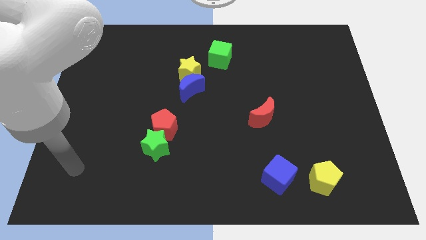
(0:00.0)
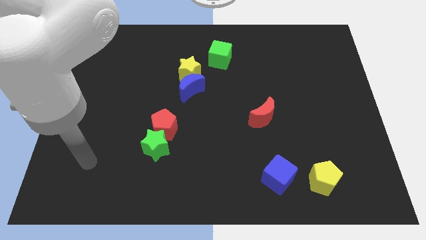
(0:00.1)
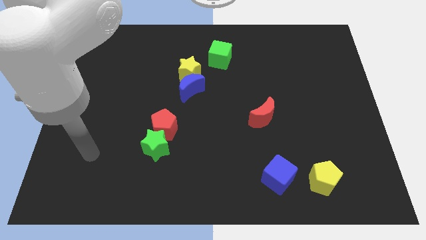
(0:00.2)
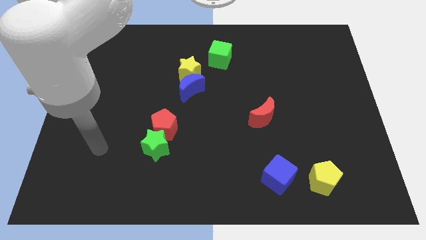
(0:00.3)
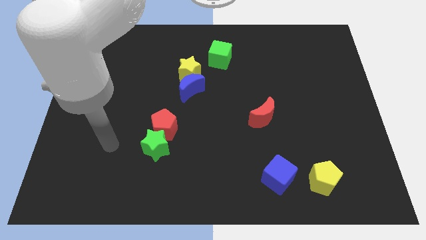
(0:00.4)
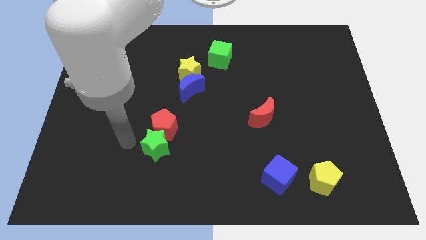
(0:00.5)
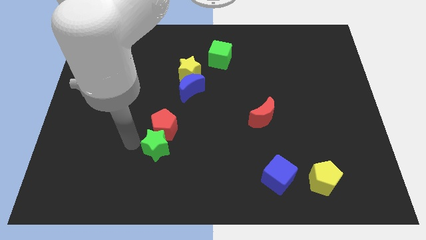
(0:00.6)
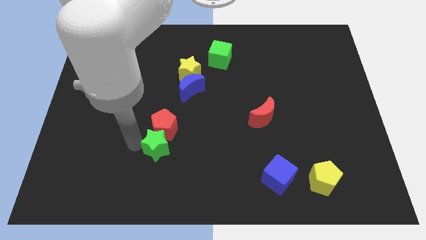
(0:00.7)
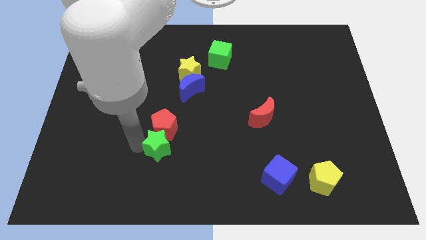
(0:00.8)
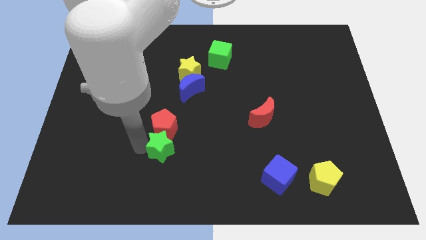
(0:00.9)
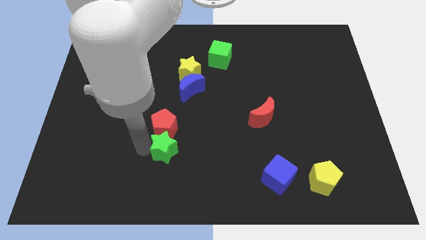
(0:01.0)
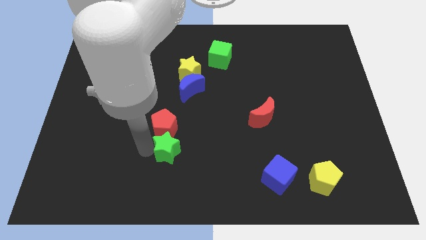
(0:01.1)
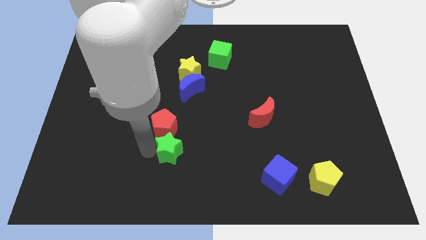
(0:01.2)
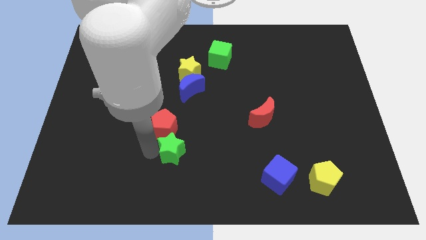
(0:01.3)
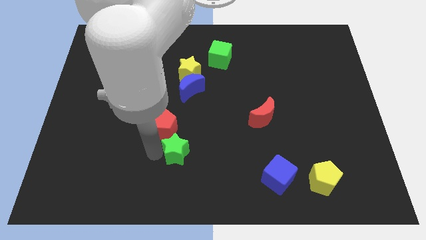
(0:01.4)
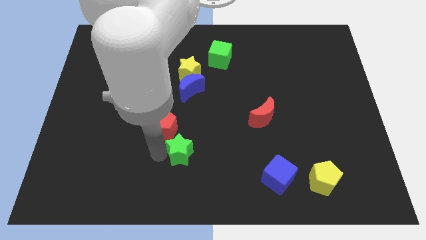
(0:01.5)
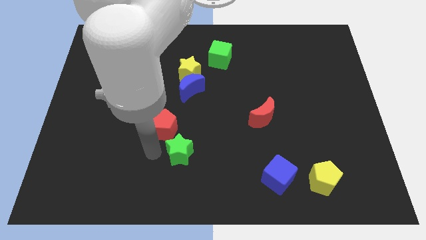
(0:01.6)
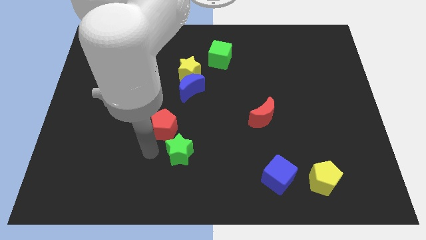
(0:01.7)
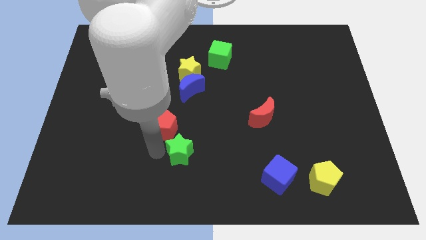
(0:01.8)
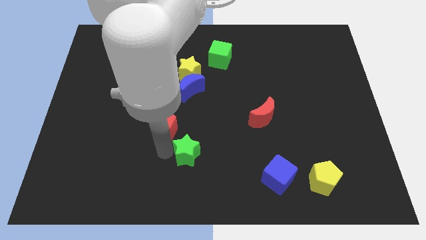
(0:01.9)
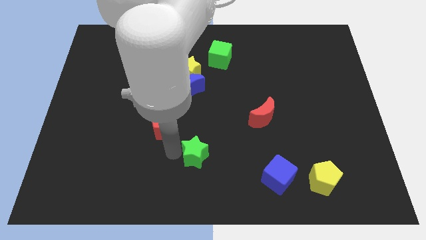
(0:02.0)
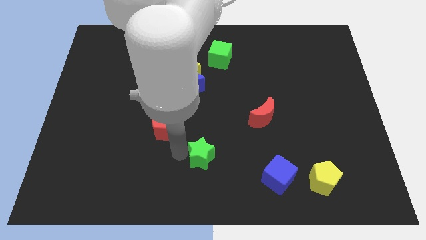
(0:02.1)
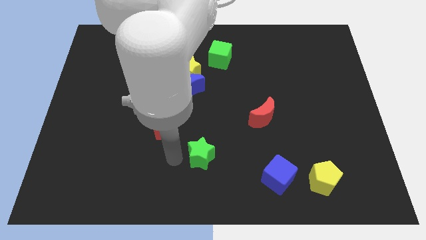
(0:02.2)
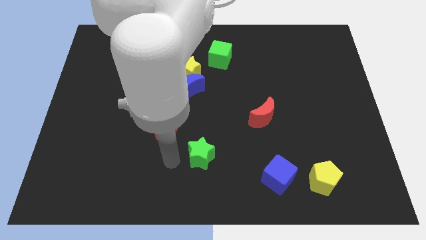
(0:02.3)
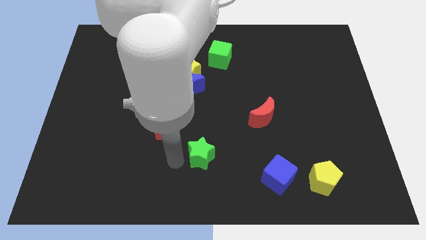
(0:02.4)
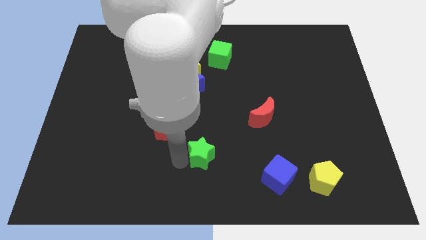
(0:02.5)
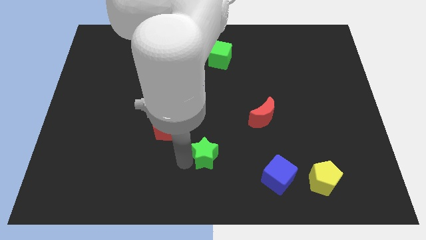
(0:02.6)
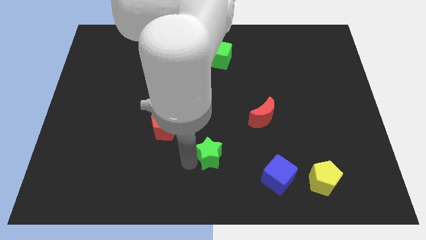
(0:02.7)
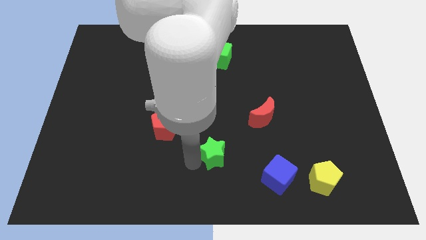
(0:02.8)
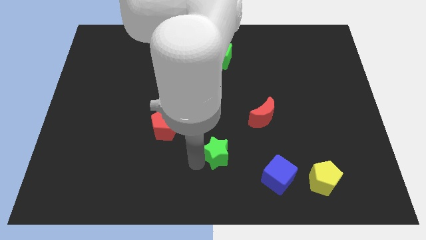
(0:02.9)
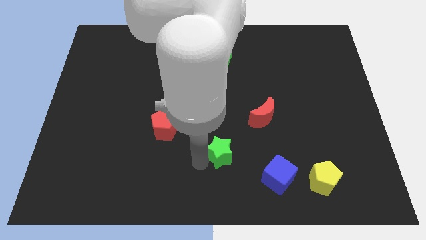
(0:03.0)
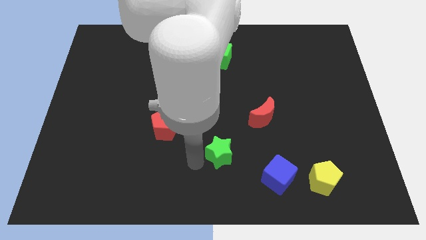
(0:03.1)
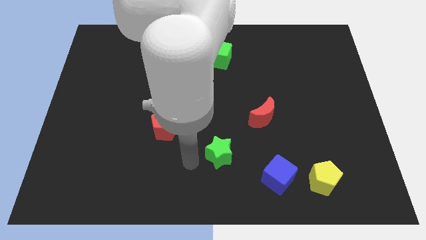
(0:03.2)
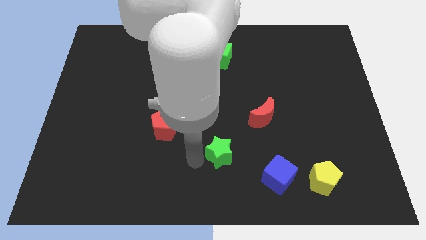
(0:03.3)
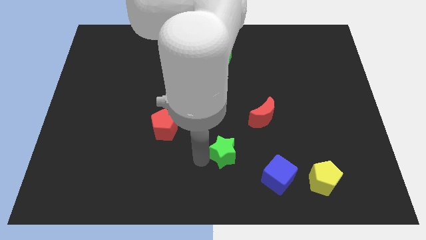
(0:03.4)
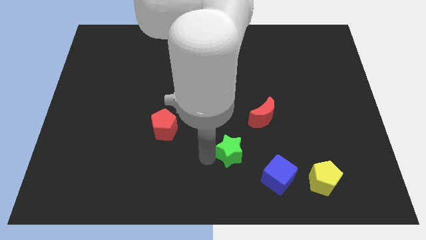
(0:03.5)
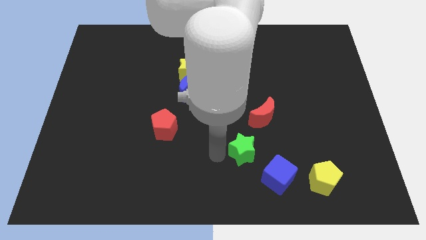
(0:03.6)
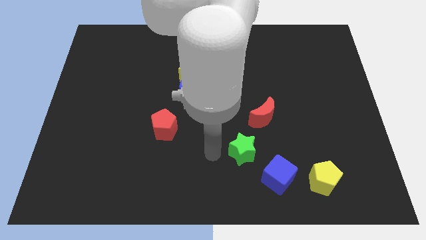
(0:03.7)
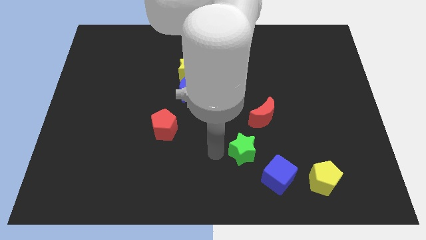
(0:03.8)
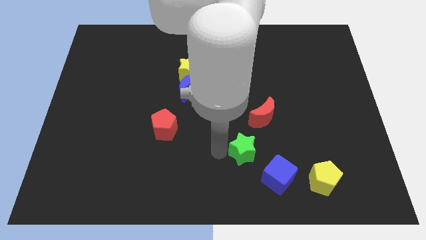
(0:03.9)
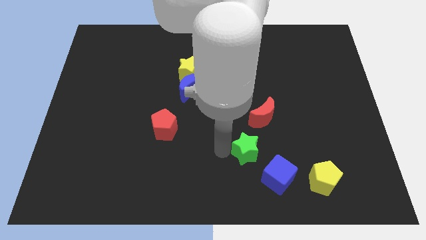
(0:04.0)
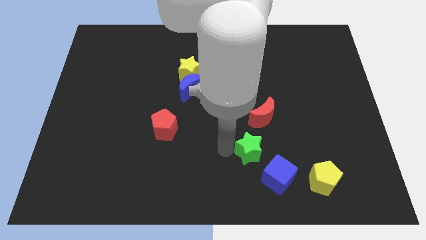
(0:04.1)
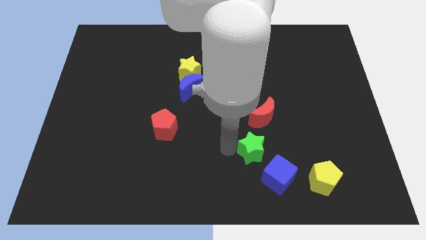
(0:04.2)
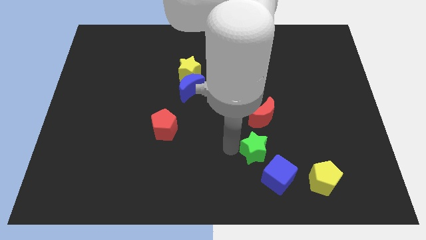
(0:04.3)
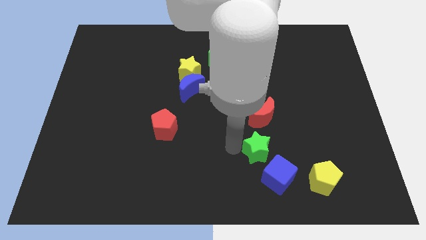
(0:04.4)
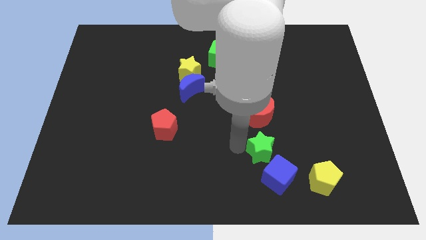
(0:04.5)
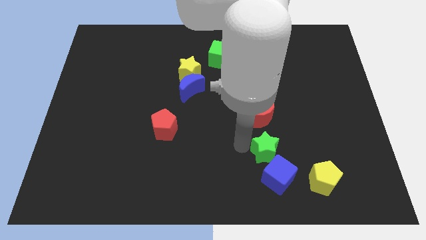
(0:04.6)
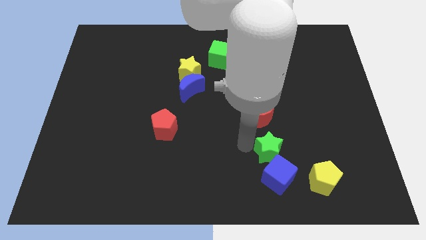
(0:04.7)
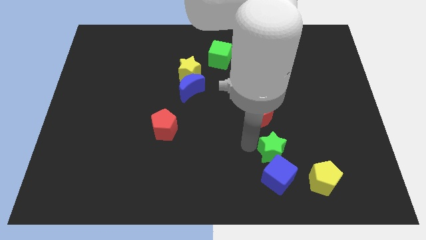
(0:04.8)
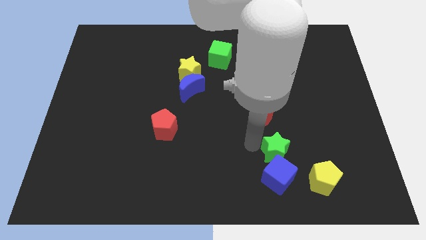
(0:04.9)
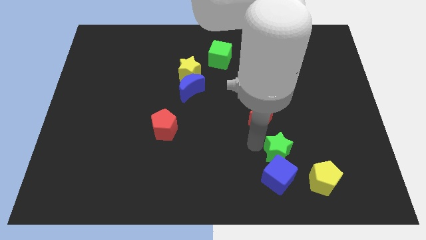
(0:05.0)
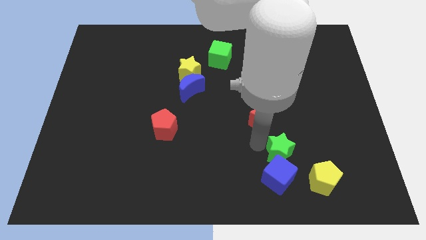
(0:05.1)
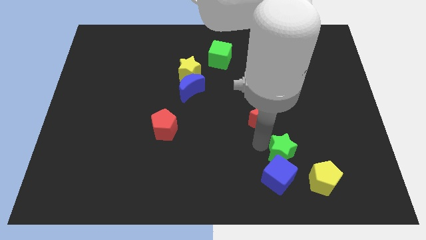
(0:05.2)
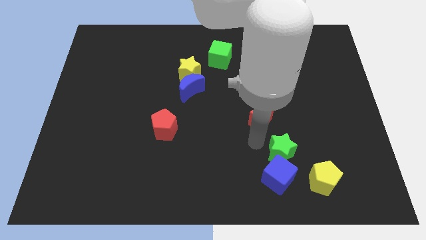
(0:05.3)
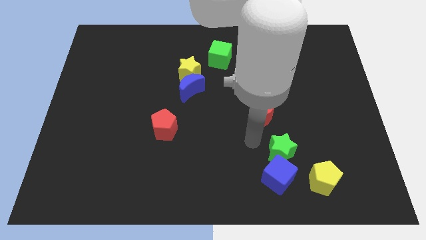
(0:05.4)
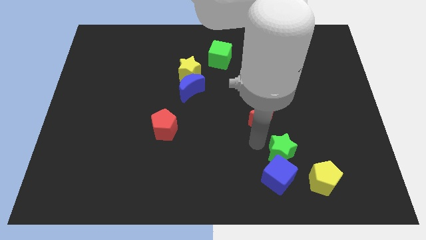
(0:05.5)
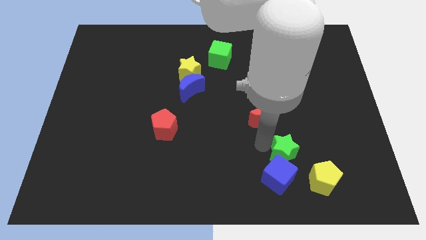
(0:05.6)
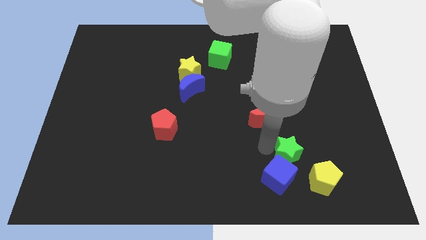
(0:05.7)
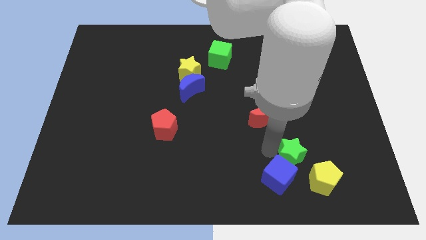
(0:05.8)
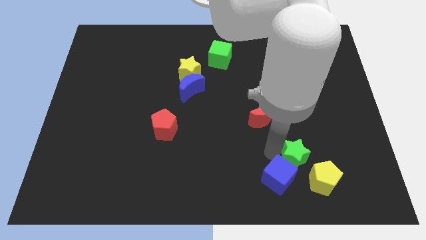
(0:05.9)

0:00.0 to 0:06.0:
move the green star to the right of the blue cube
